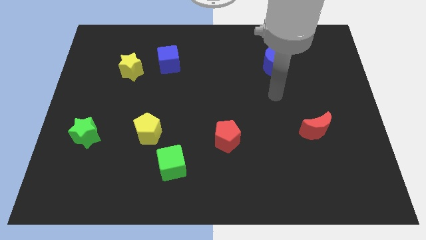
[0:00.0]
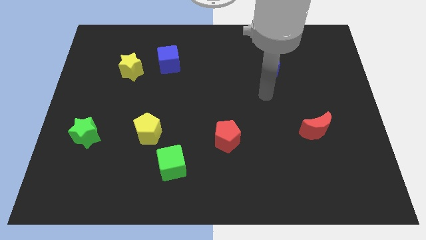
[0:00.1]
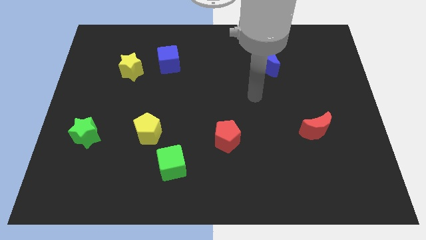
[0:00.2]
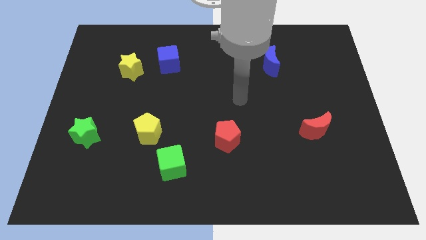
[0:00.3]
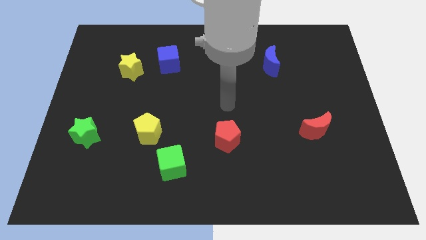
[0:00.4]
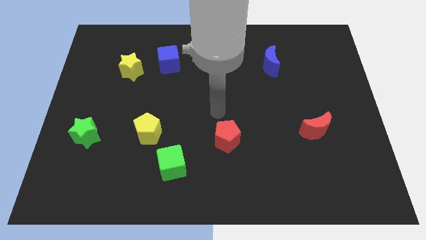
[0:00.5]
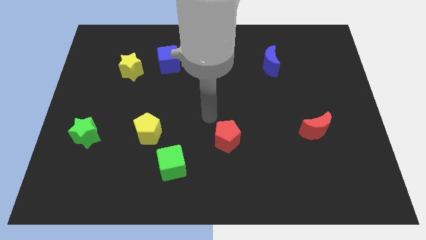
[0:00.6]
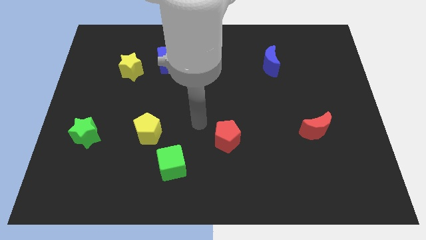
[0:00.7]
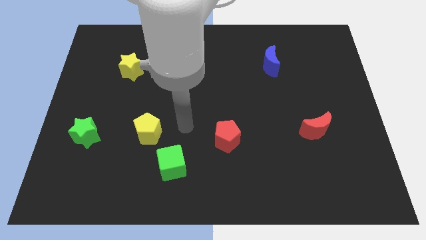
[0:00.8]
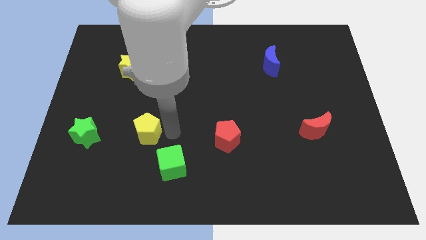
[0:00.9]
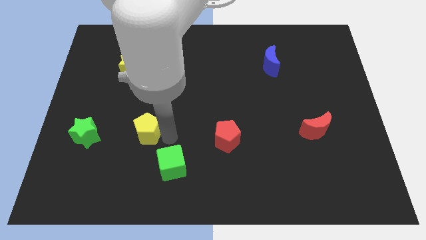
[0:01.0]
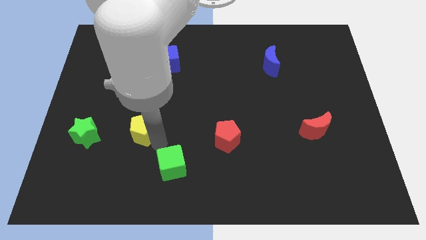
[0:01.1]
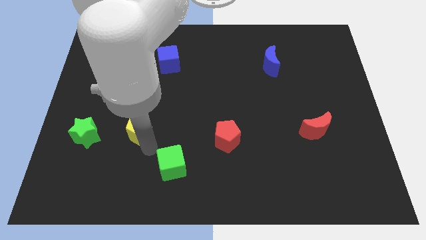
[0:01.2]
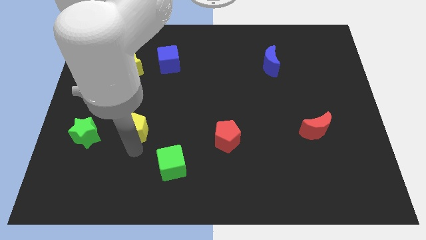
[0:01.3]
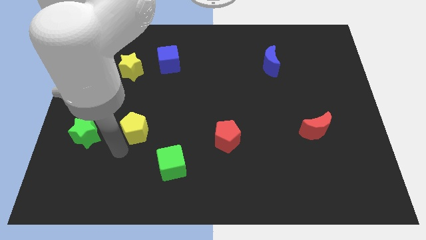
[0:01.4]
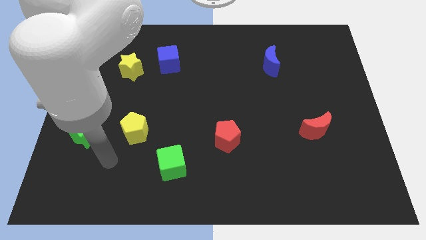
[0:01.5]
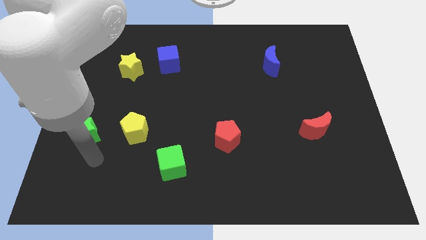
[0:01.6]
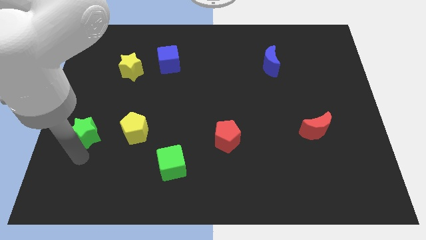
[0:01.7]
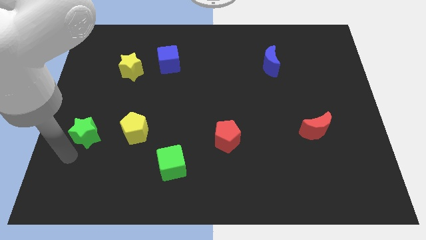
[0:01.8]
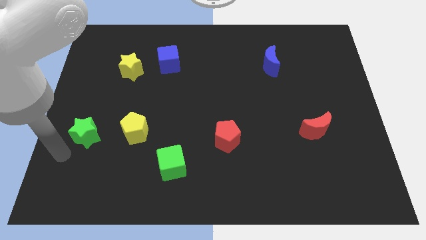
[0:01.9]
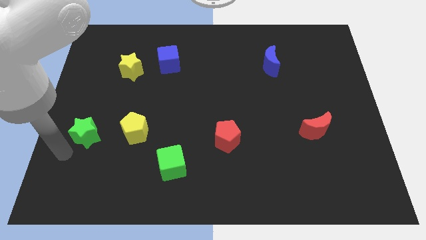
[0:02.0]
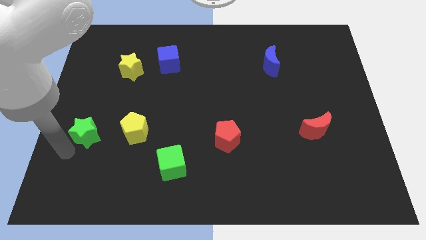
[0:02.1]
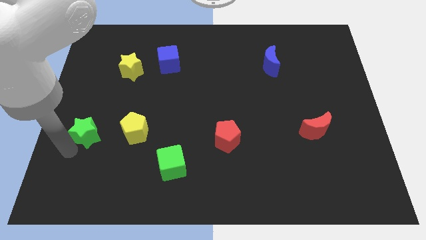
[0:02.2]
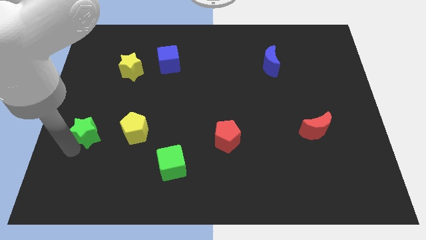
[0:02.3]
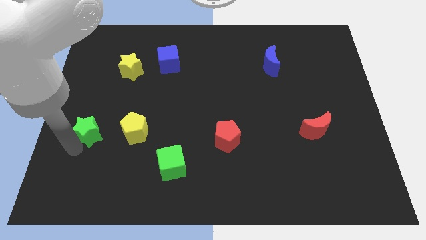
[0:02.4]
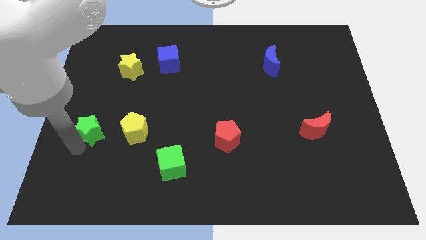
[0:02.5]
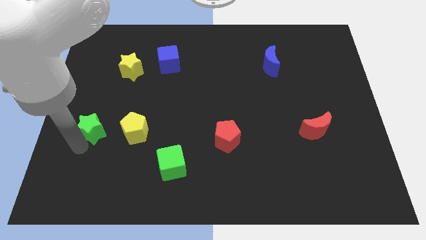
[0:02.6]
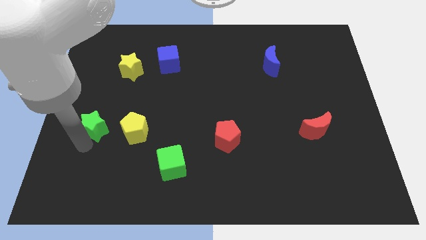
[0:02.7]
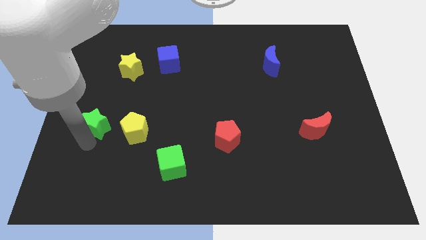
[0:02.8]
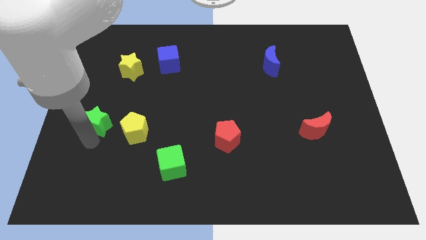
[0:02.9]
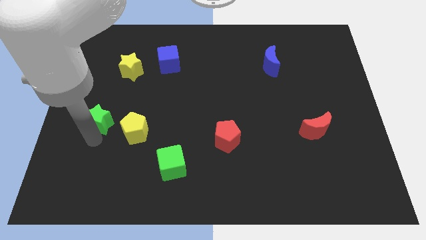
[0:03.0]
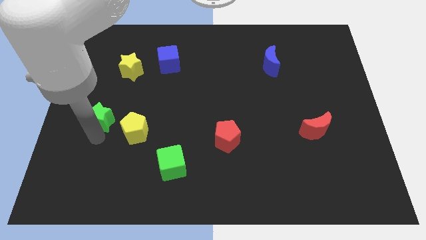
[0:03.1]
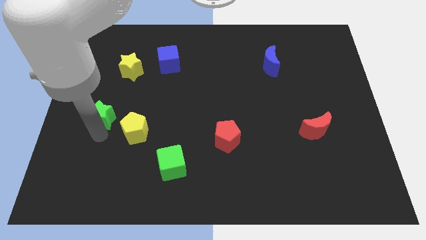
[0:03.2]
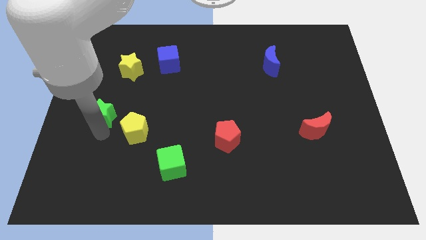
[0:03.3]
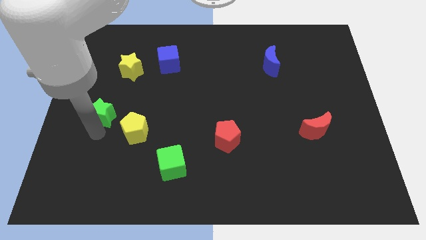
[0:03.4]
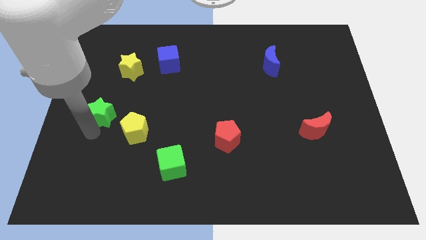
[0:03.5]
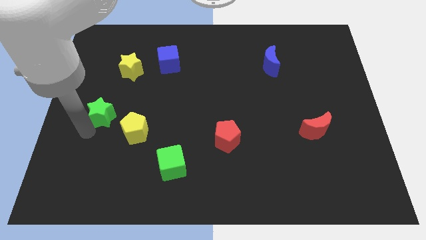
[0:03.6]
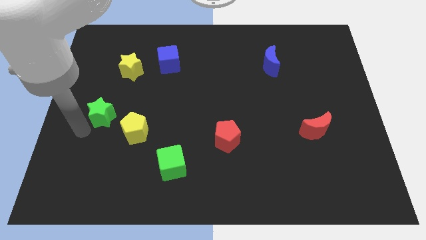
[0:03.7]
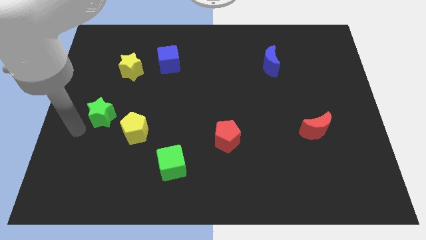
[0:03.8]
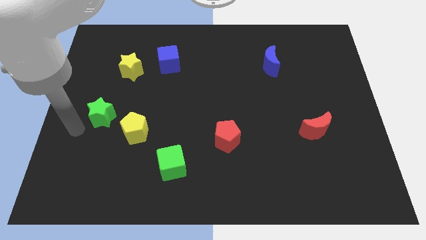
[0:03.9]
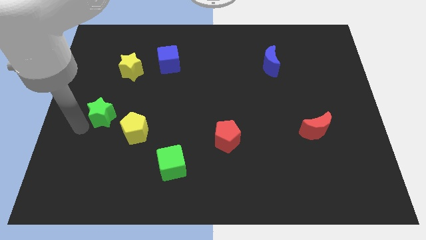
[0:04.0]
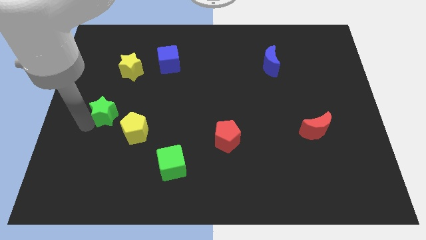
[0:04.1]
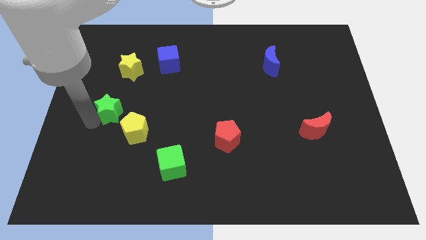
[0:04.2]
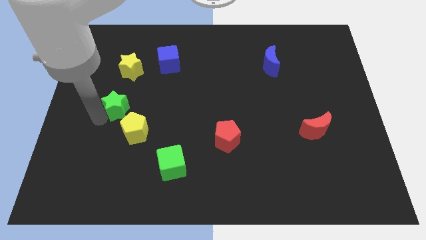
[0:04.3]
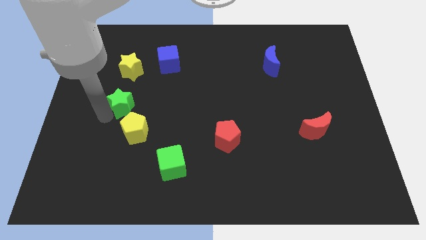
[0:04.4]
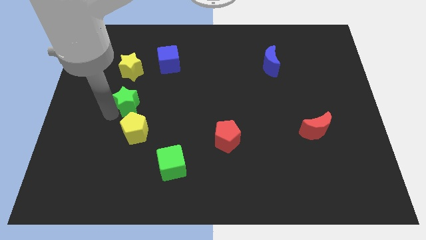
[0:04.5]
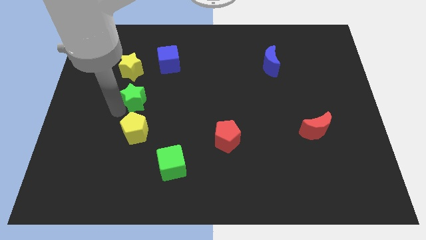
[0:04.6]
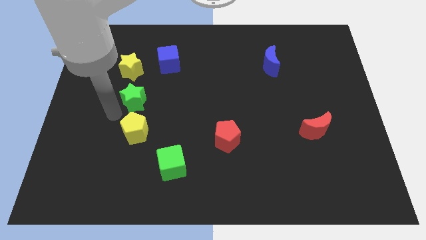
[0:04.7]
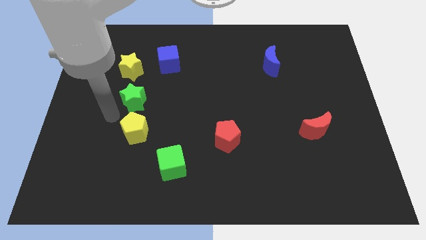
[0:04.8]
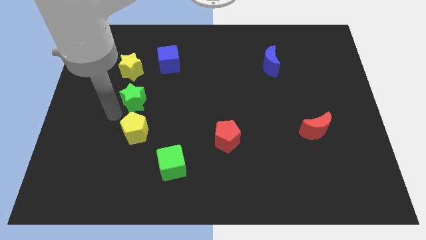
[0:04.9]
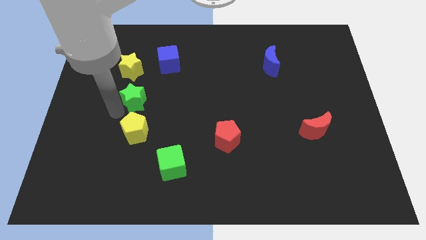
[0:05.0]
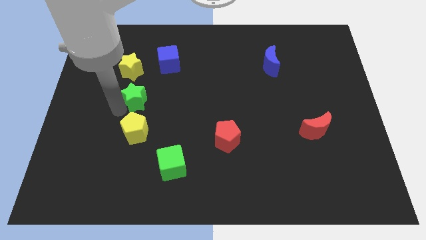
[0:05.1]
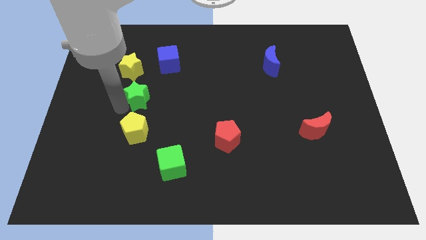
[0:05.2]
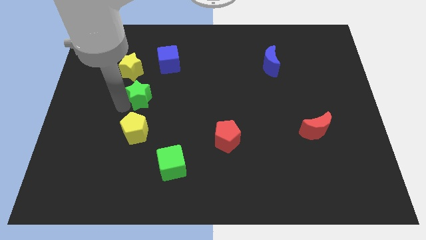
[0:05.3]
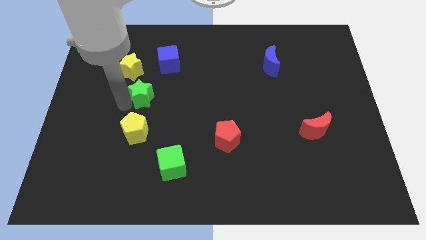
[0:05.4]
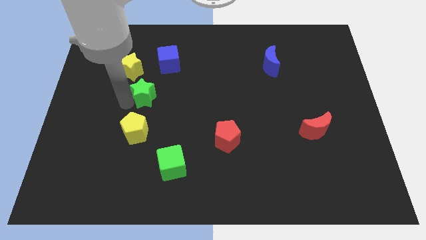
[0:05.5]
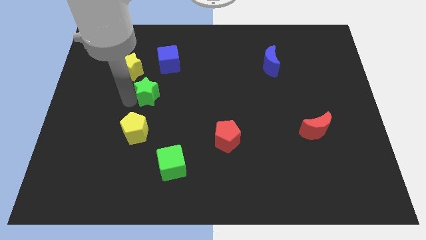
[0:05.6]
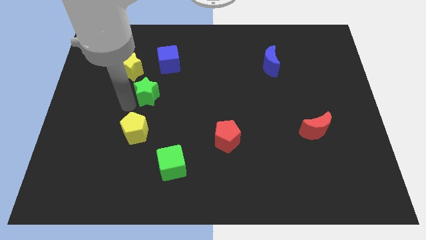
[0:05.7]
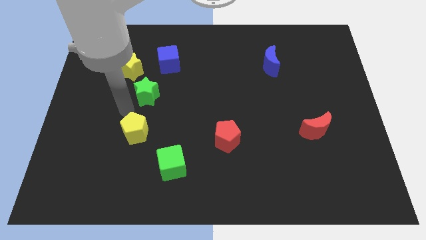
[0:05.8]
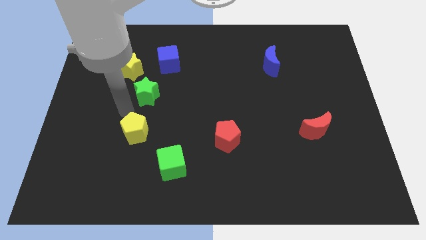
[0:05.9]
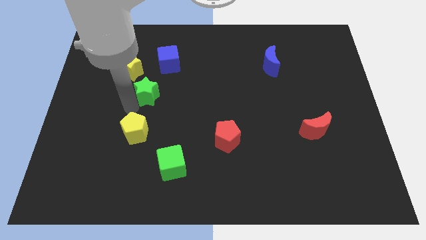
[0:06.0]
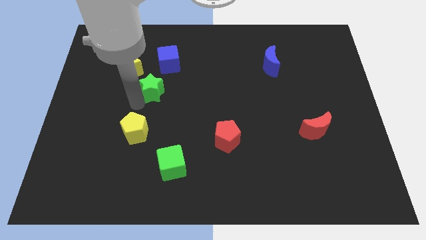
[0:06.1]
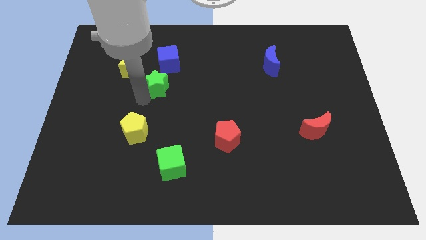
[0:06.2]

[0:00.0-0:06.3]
slide the green star up and right

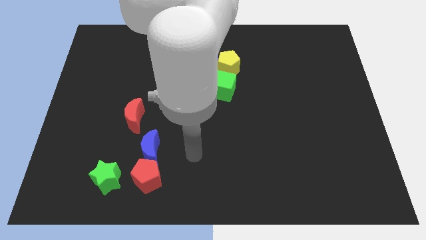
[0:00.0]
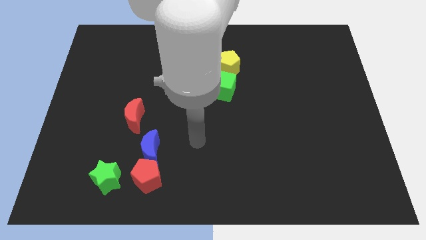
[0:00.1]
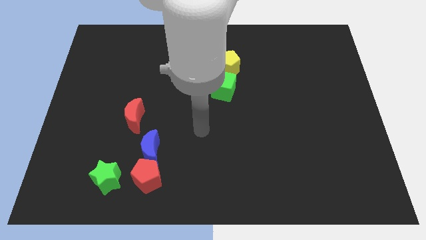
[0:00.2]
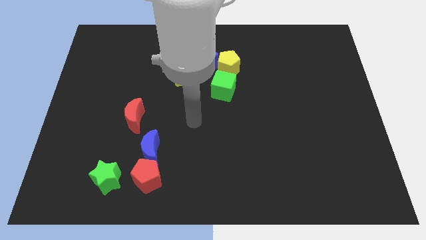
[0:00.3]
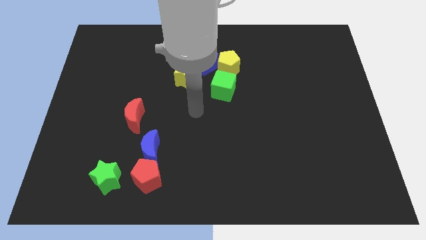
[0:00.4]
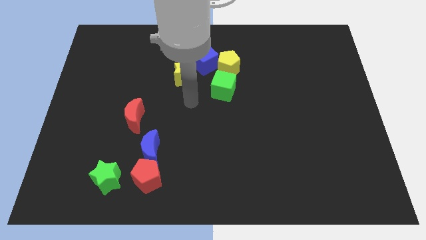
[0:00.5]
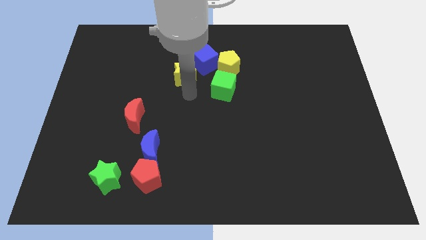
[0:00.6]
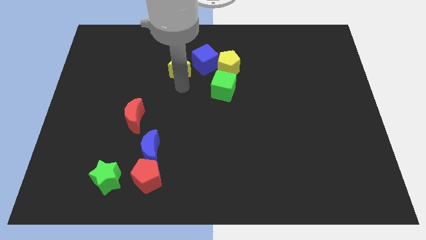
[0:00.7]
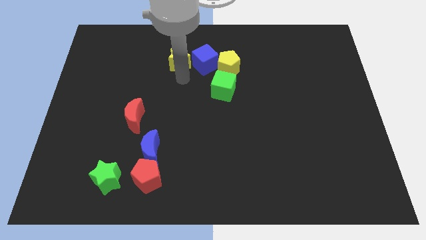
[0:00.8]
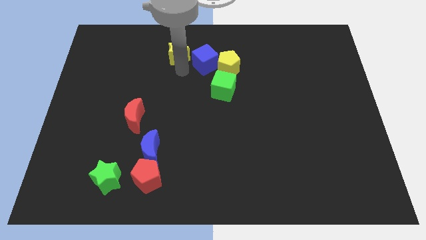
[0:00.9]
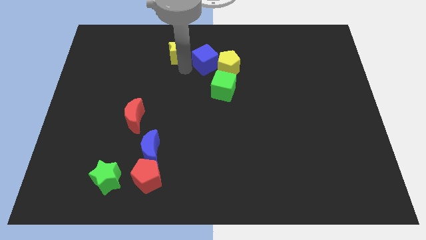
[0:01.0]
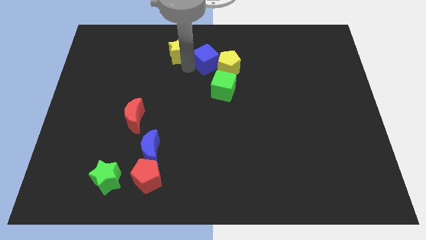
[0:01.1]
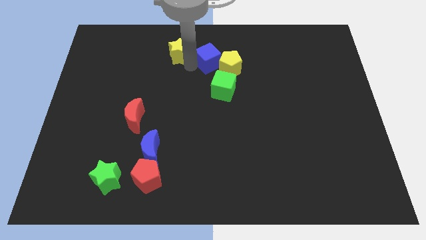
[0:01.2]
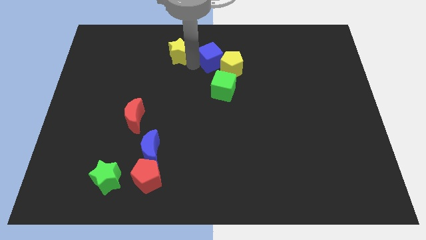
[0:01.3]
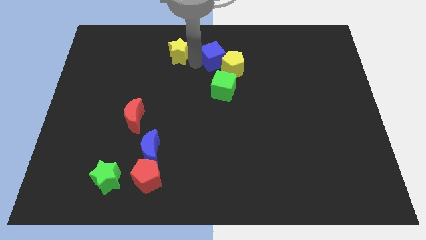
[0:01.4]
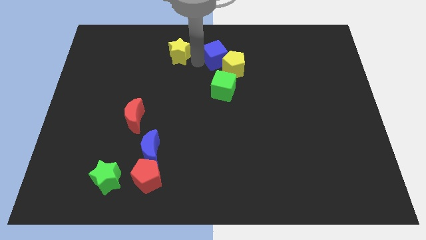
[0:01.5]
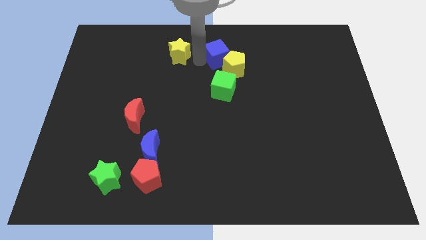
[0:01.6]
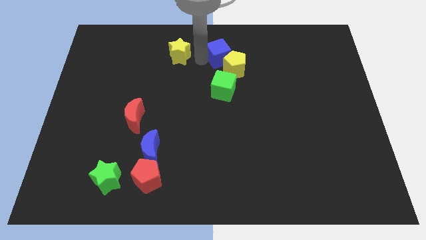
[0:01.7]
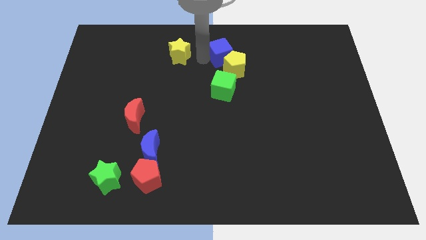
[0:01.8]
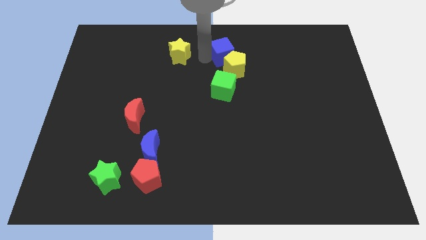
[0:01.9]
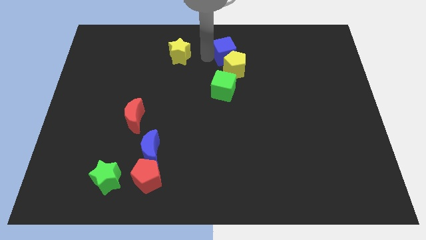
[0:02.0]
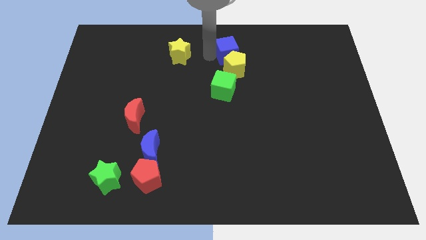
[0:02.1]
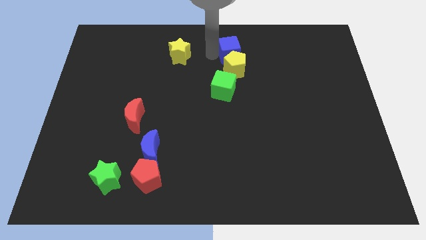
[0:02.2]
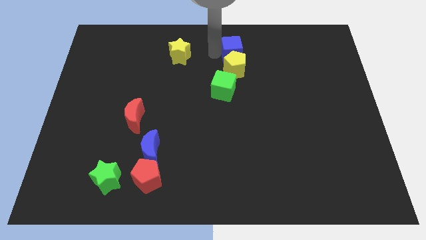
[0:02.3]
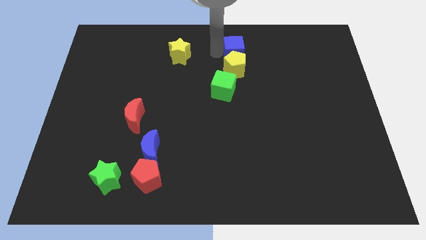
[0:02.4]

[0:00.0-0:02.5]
slightly slide the blue cube to the right
